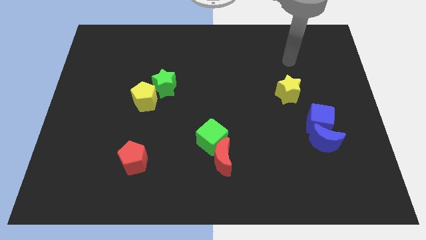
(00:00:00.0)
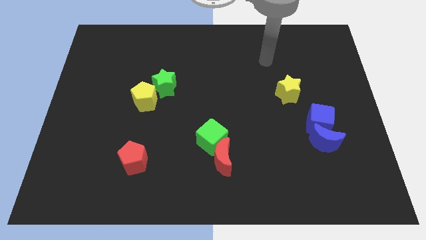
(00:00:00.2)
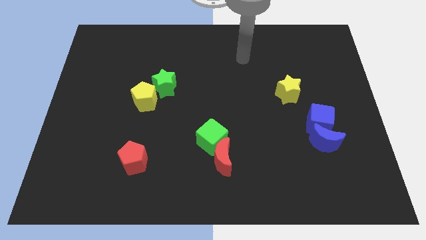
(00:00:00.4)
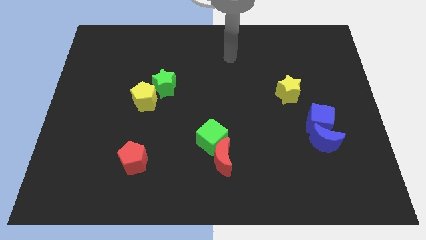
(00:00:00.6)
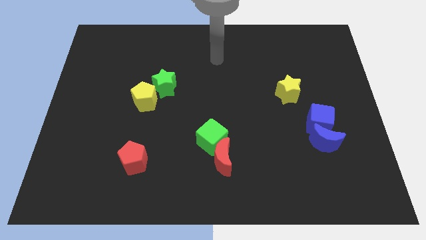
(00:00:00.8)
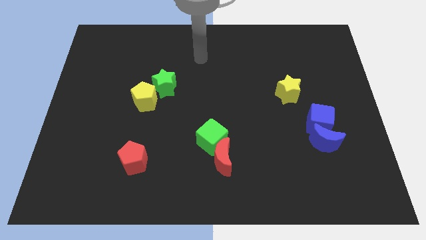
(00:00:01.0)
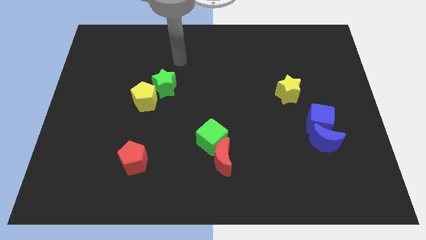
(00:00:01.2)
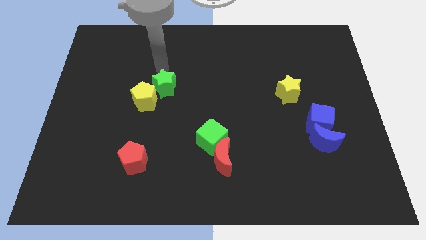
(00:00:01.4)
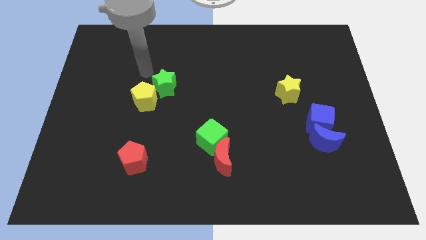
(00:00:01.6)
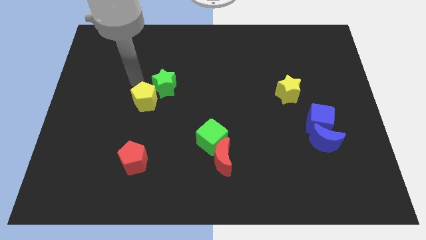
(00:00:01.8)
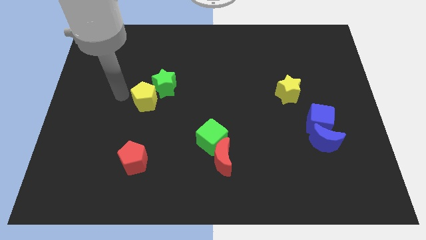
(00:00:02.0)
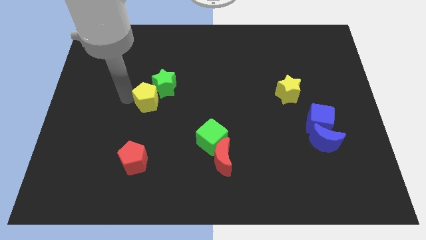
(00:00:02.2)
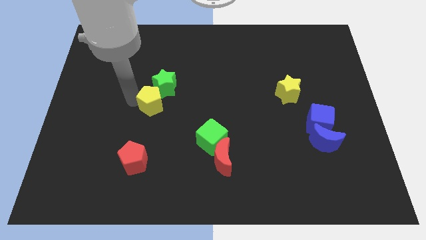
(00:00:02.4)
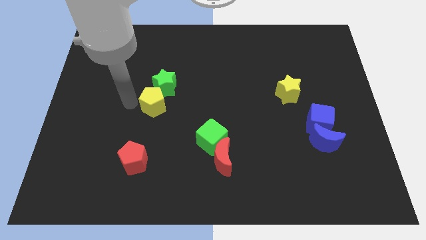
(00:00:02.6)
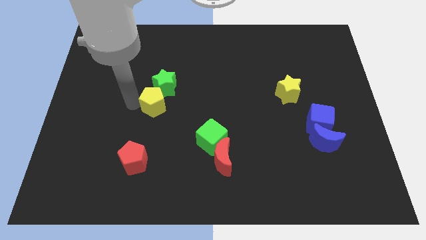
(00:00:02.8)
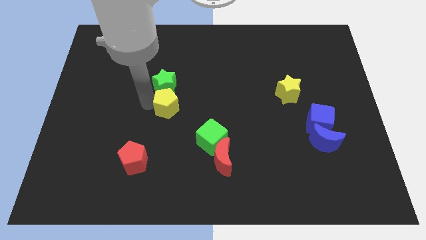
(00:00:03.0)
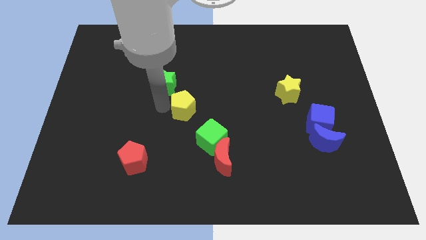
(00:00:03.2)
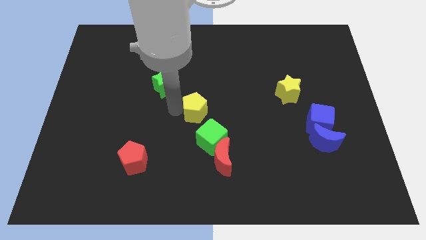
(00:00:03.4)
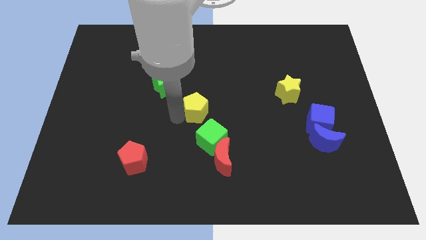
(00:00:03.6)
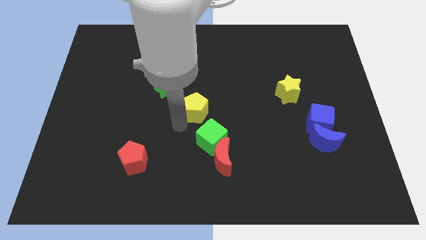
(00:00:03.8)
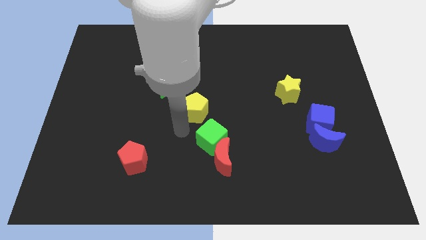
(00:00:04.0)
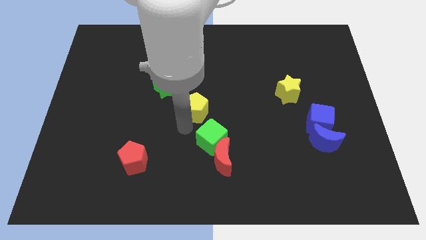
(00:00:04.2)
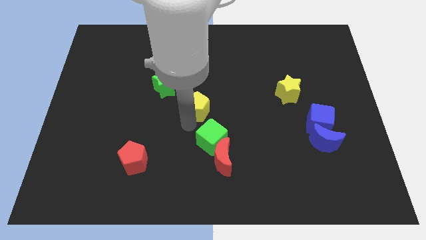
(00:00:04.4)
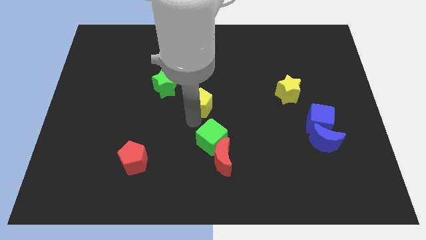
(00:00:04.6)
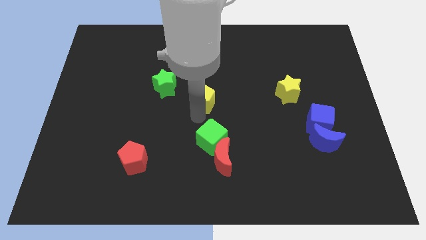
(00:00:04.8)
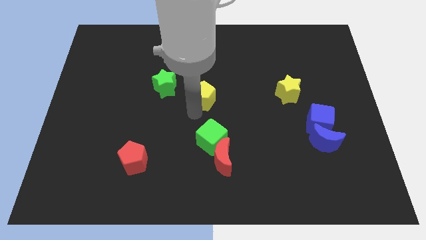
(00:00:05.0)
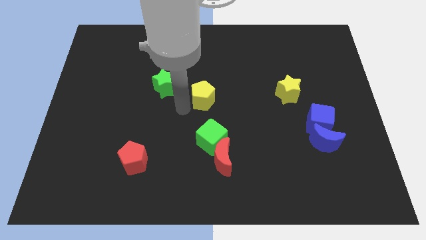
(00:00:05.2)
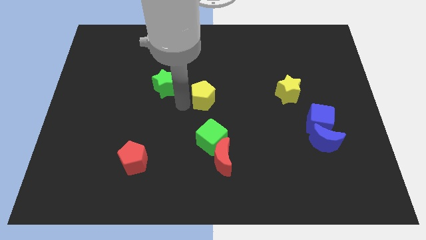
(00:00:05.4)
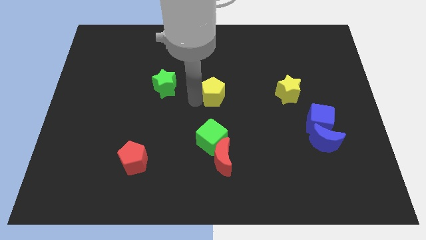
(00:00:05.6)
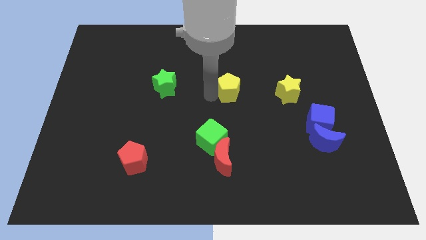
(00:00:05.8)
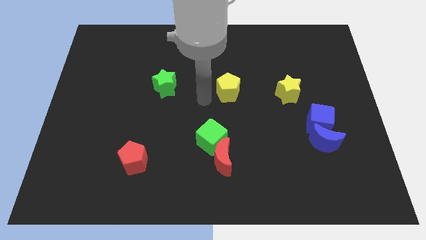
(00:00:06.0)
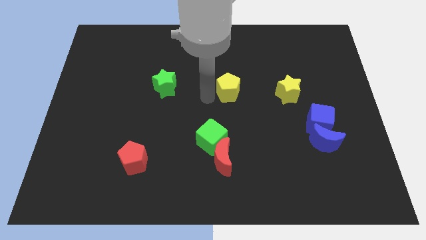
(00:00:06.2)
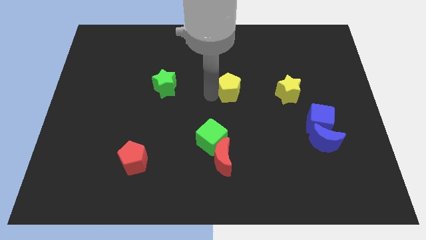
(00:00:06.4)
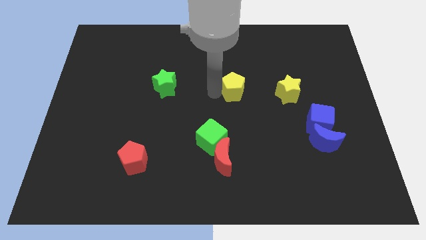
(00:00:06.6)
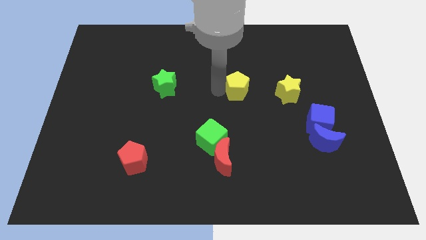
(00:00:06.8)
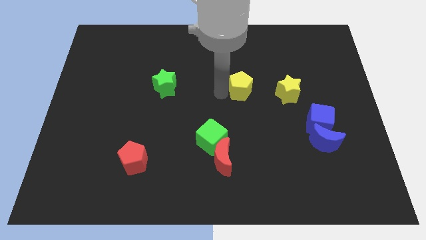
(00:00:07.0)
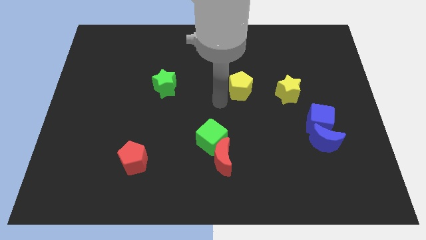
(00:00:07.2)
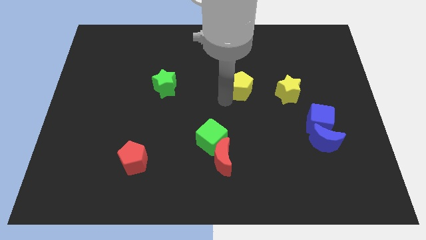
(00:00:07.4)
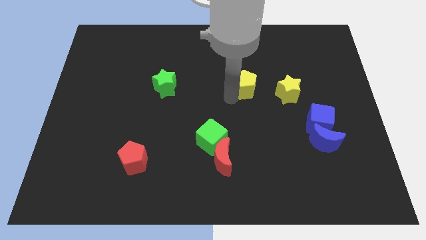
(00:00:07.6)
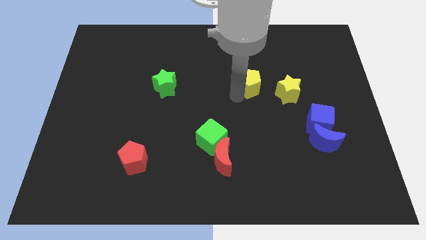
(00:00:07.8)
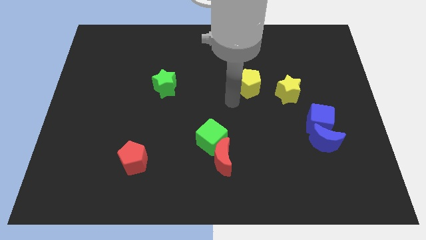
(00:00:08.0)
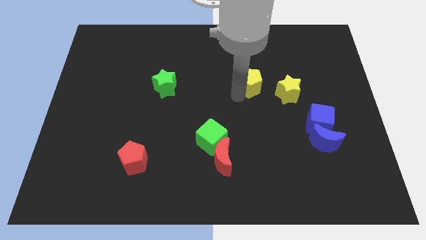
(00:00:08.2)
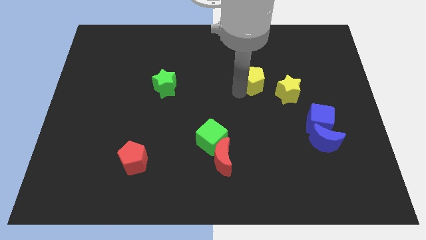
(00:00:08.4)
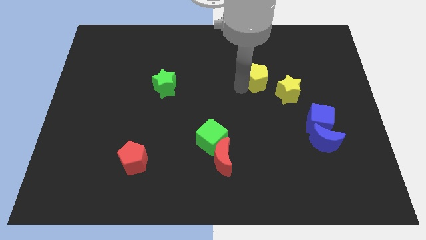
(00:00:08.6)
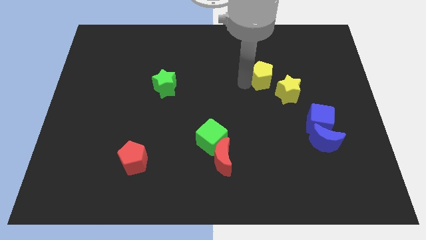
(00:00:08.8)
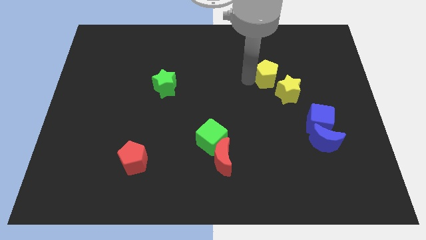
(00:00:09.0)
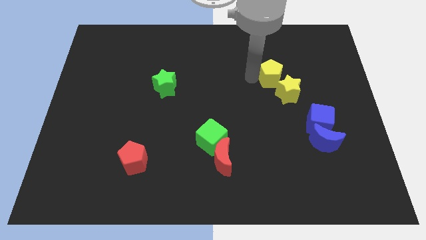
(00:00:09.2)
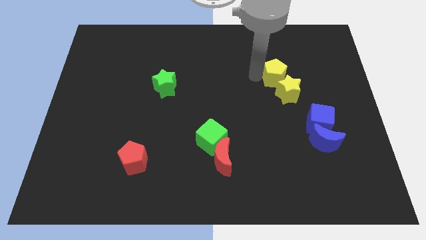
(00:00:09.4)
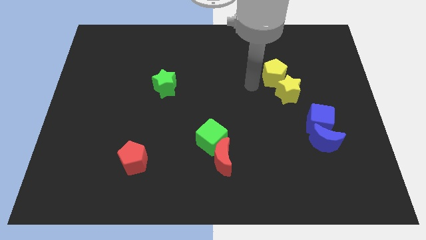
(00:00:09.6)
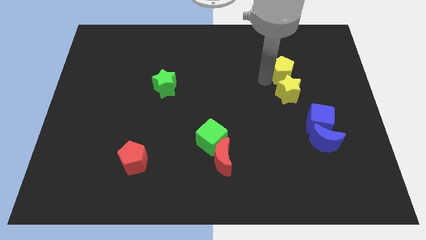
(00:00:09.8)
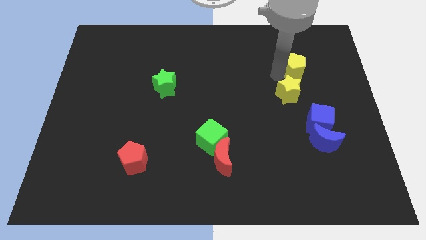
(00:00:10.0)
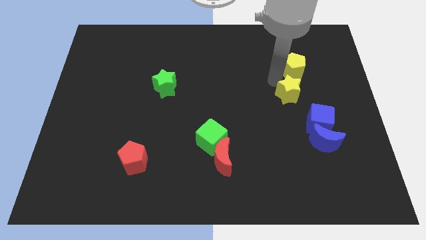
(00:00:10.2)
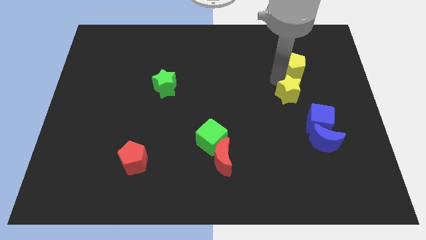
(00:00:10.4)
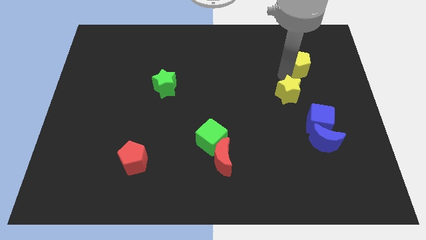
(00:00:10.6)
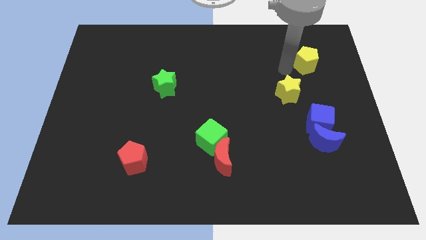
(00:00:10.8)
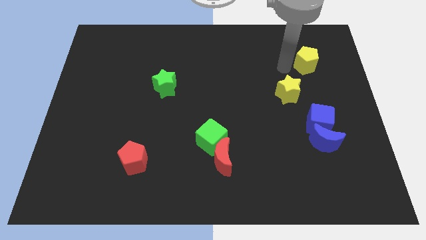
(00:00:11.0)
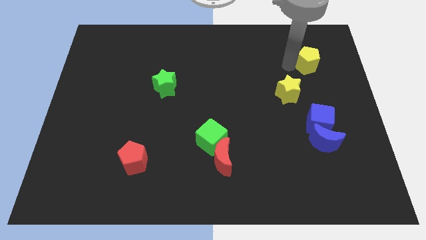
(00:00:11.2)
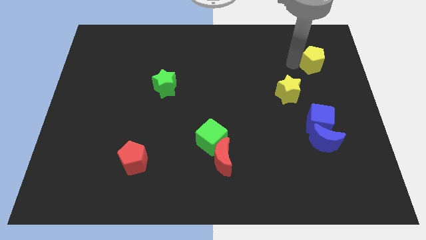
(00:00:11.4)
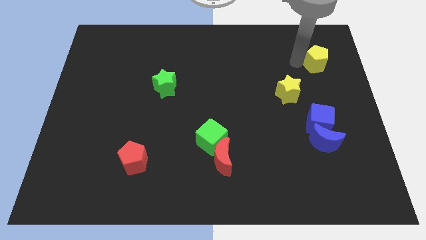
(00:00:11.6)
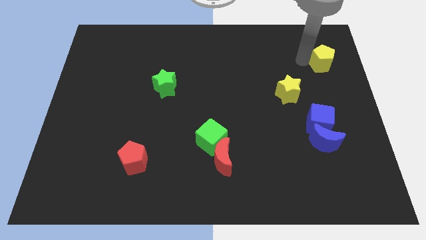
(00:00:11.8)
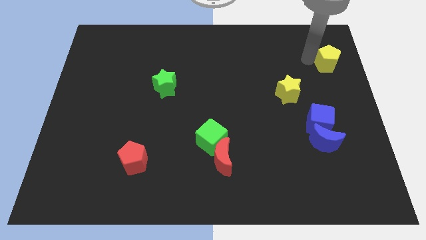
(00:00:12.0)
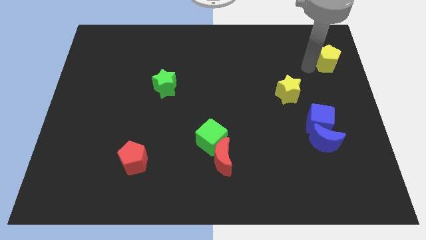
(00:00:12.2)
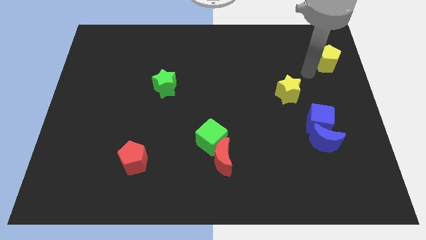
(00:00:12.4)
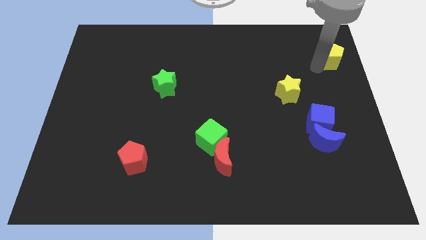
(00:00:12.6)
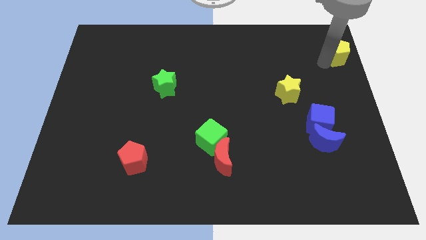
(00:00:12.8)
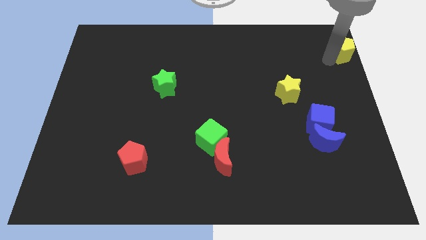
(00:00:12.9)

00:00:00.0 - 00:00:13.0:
put the yellow pentagon to the upper right corner
